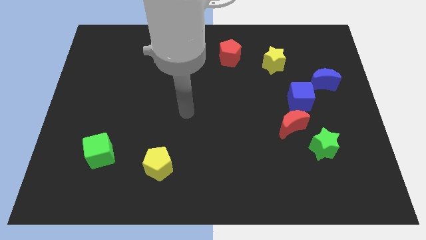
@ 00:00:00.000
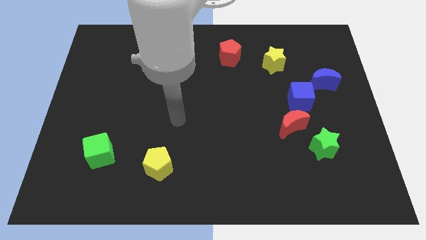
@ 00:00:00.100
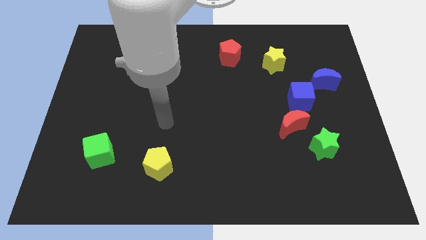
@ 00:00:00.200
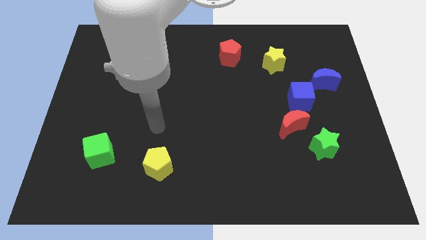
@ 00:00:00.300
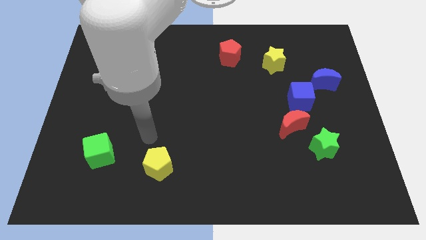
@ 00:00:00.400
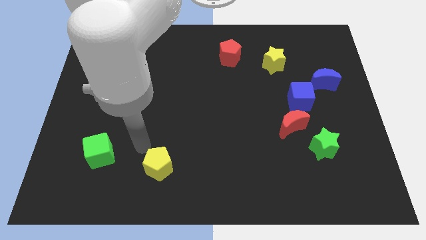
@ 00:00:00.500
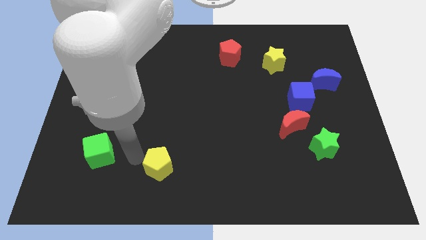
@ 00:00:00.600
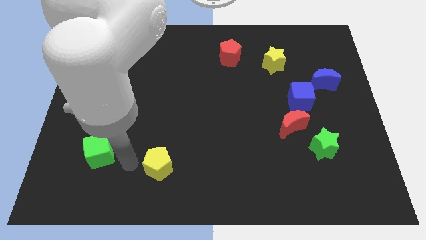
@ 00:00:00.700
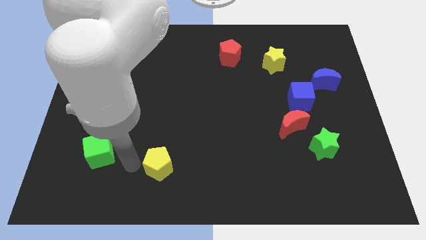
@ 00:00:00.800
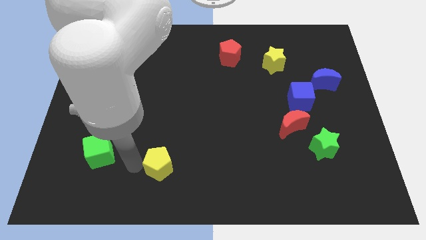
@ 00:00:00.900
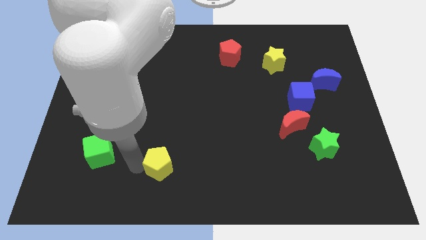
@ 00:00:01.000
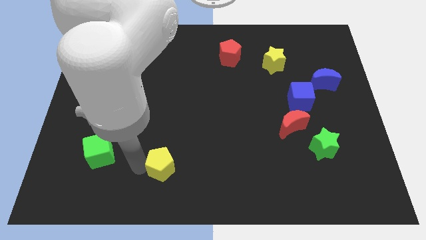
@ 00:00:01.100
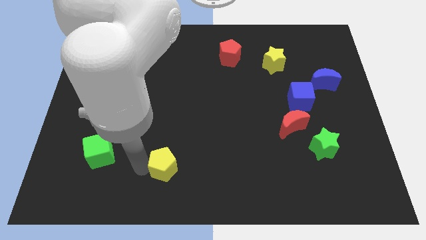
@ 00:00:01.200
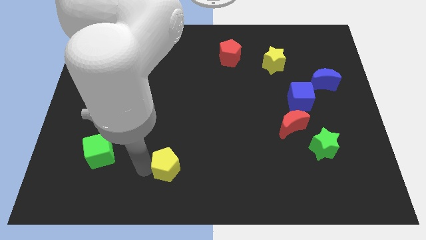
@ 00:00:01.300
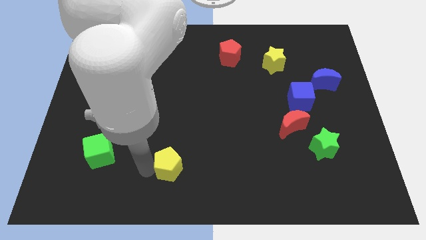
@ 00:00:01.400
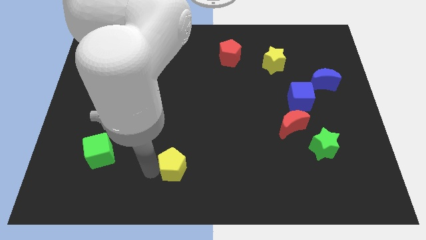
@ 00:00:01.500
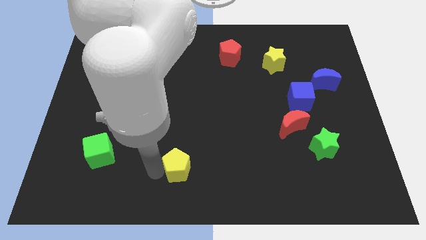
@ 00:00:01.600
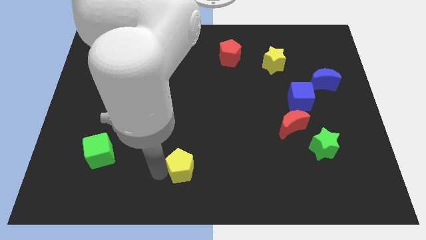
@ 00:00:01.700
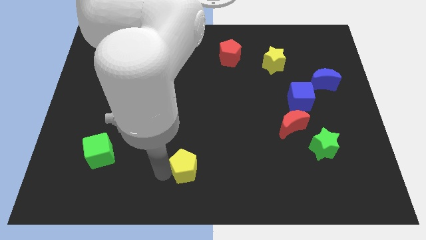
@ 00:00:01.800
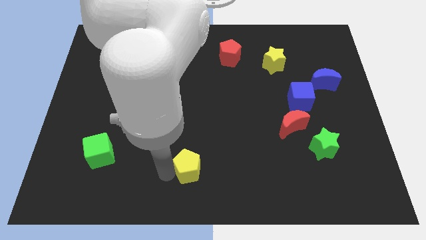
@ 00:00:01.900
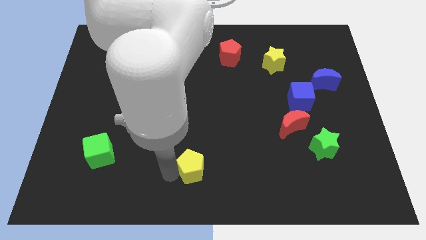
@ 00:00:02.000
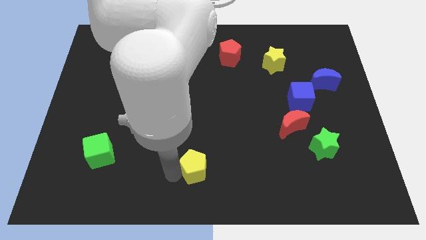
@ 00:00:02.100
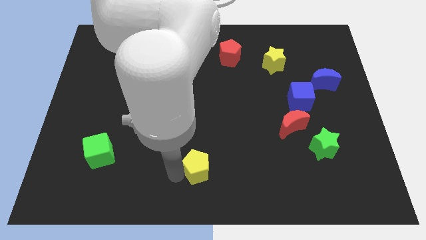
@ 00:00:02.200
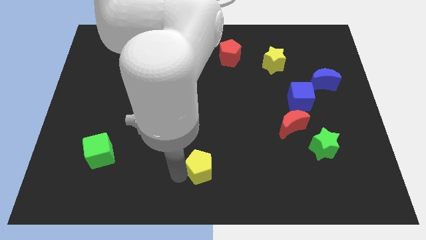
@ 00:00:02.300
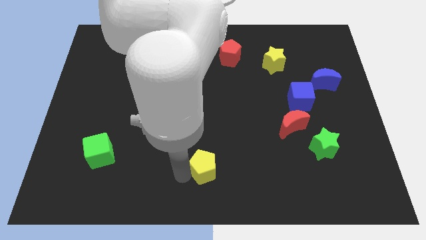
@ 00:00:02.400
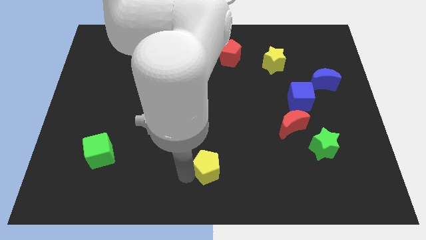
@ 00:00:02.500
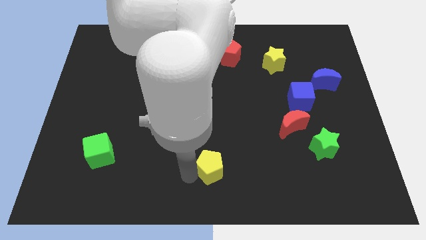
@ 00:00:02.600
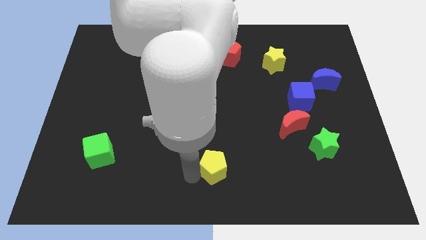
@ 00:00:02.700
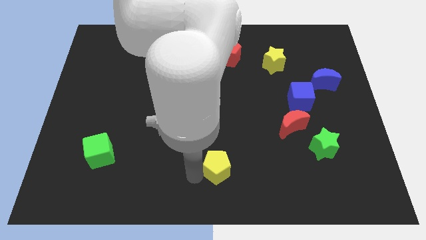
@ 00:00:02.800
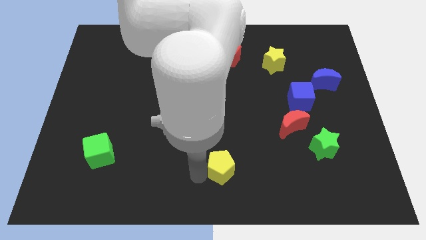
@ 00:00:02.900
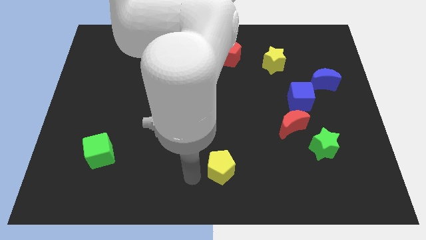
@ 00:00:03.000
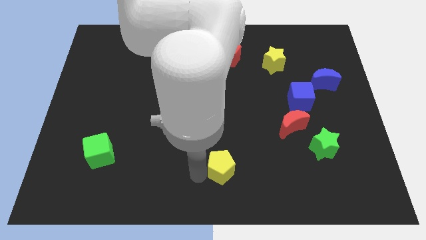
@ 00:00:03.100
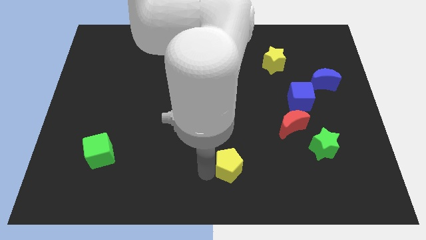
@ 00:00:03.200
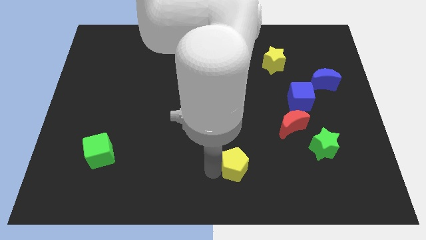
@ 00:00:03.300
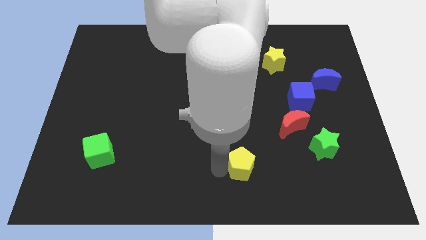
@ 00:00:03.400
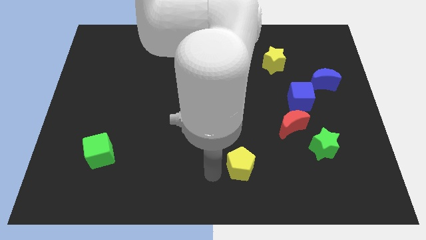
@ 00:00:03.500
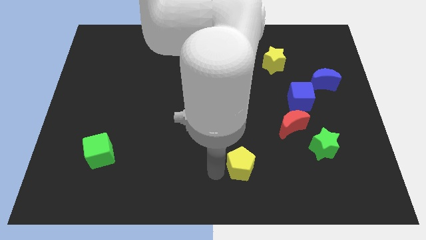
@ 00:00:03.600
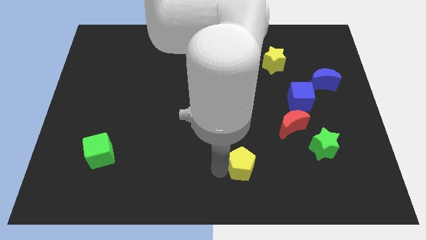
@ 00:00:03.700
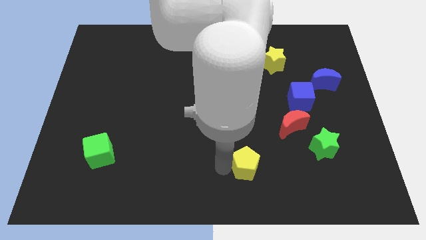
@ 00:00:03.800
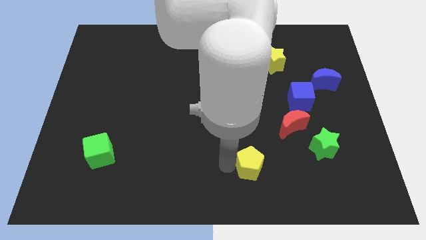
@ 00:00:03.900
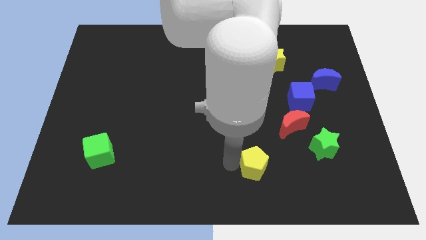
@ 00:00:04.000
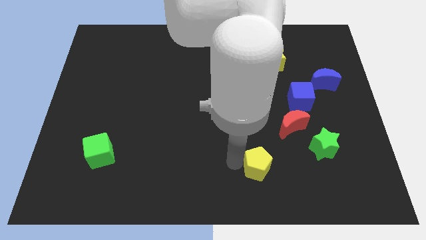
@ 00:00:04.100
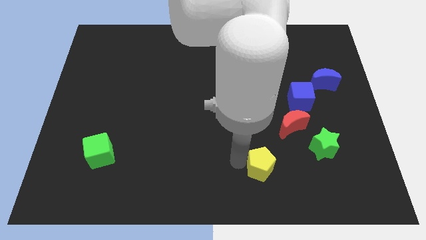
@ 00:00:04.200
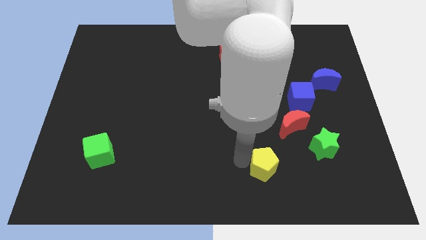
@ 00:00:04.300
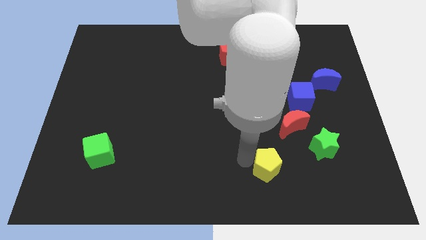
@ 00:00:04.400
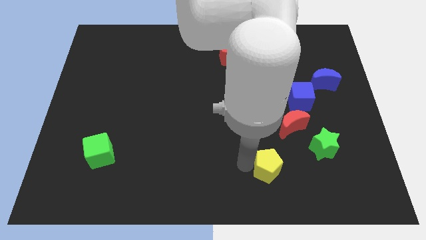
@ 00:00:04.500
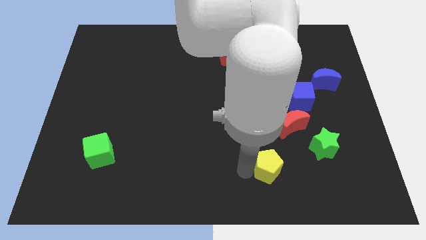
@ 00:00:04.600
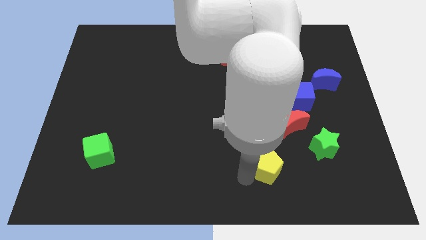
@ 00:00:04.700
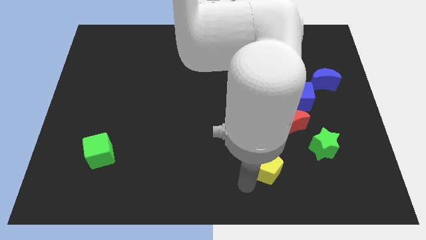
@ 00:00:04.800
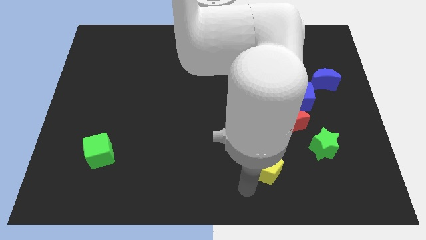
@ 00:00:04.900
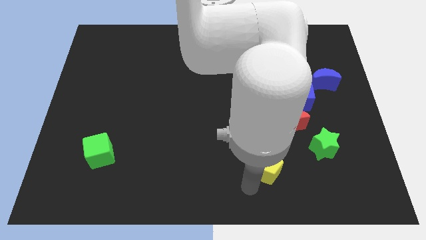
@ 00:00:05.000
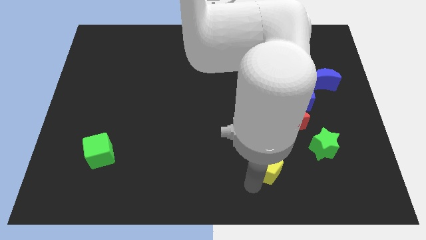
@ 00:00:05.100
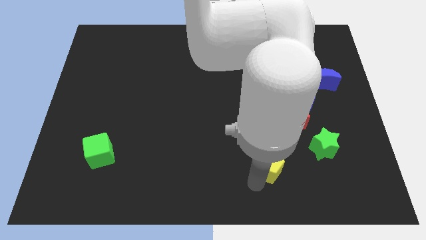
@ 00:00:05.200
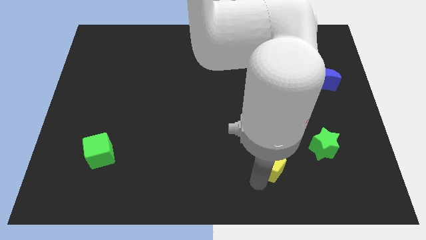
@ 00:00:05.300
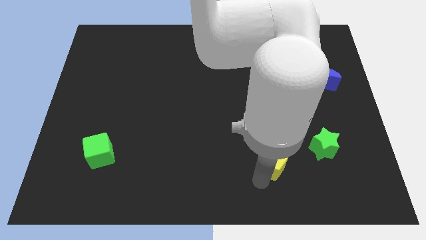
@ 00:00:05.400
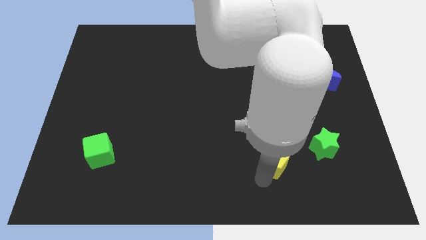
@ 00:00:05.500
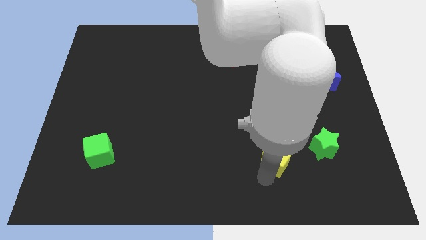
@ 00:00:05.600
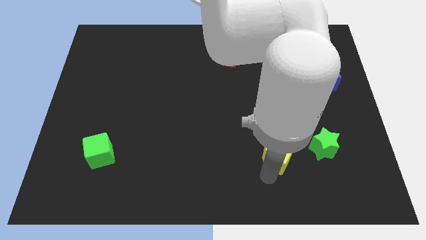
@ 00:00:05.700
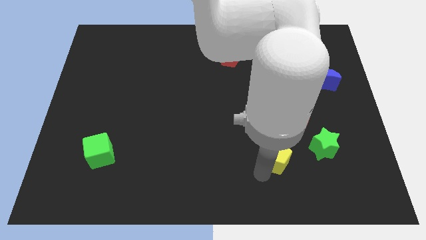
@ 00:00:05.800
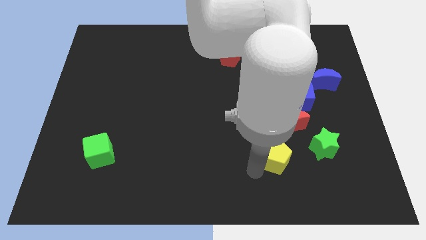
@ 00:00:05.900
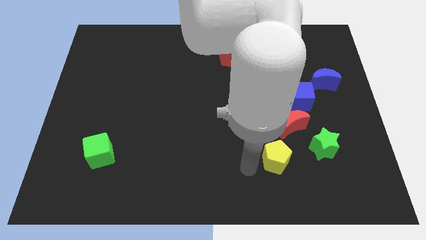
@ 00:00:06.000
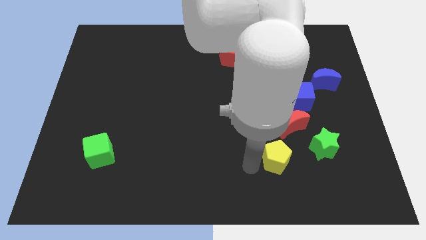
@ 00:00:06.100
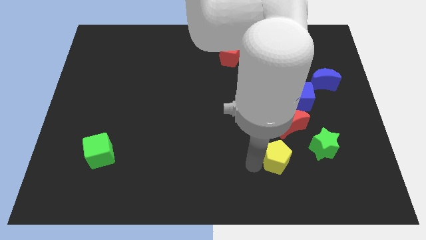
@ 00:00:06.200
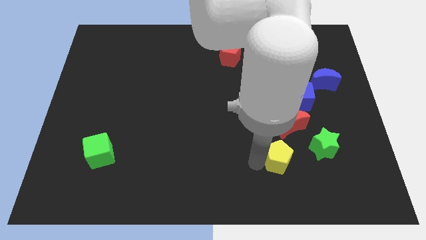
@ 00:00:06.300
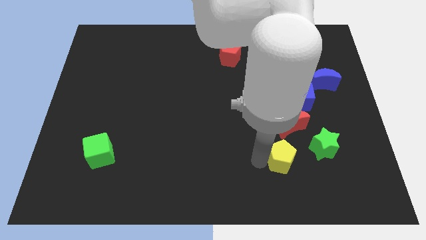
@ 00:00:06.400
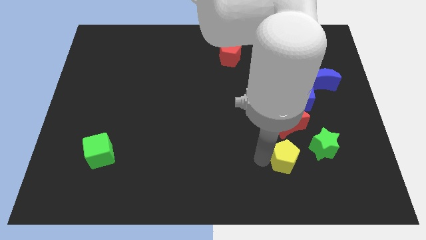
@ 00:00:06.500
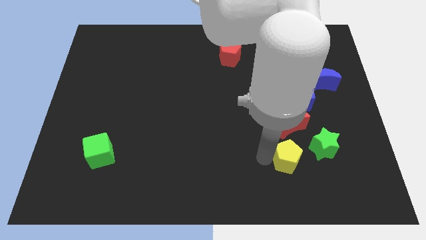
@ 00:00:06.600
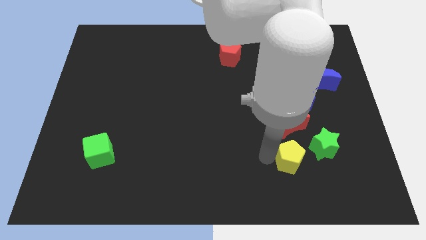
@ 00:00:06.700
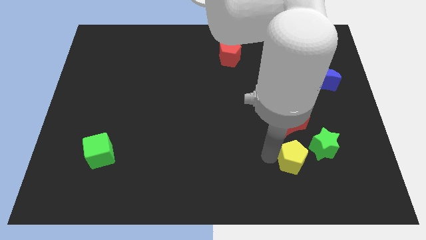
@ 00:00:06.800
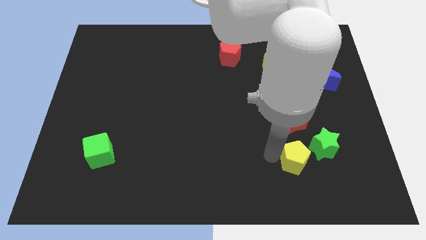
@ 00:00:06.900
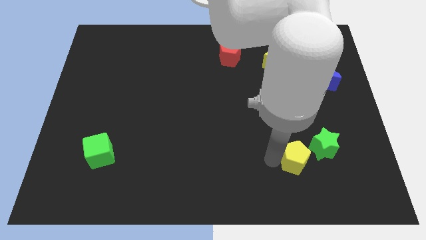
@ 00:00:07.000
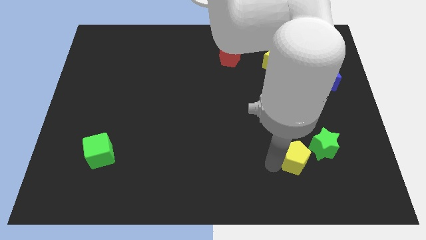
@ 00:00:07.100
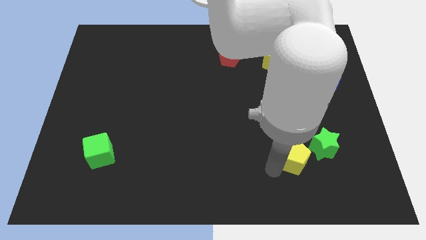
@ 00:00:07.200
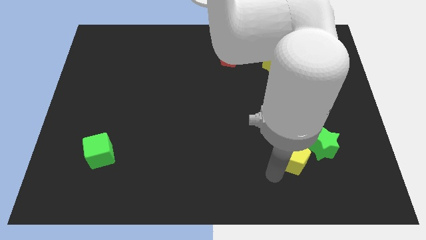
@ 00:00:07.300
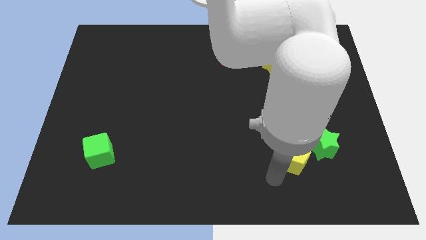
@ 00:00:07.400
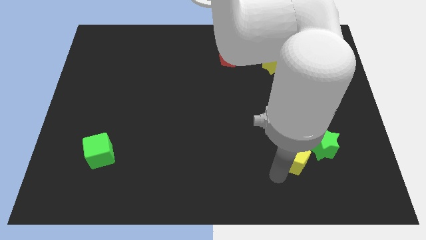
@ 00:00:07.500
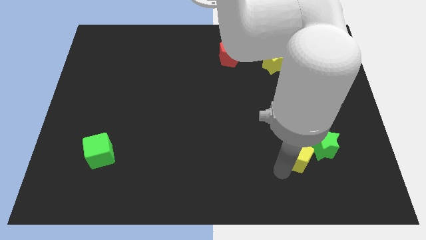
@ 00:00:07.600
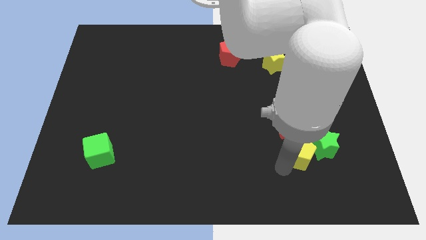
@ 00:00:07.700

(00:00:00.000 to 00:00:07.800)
slide the yellow pentagon close to the green star
